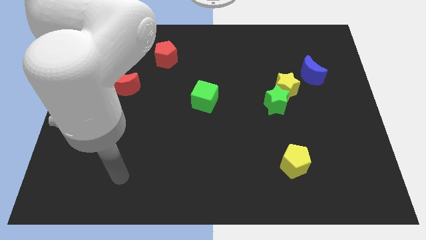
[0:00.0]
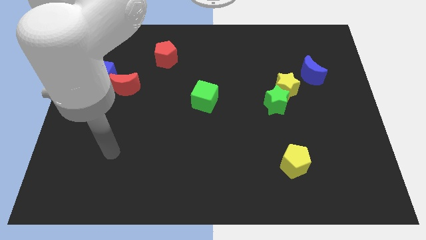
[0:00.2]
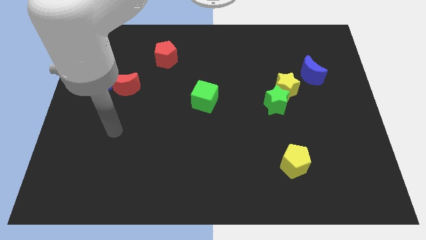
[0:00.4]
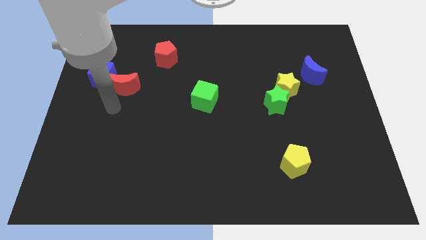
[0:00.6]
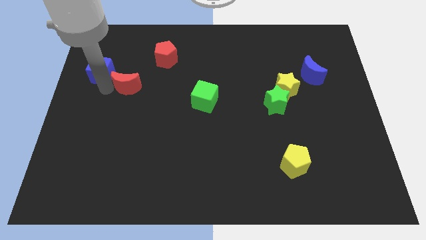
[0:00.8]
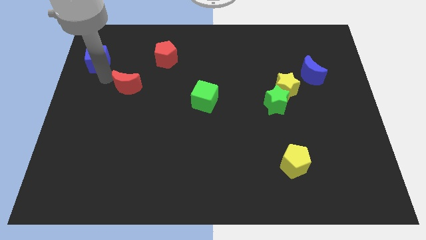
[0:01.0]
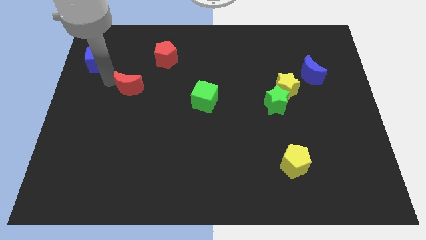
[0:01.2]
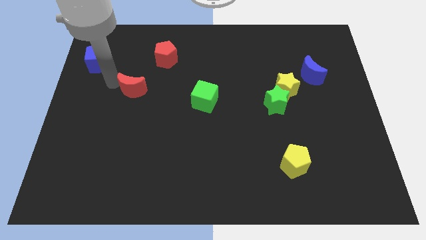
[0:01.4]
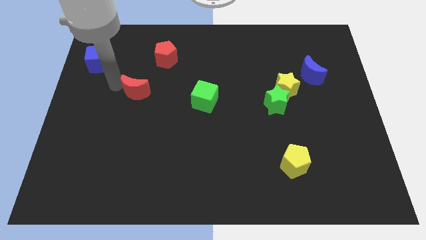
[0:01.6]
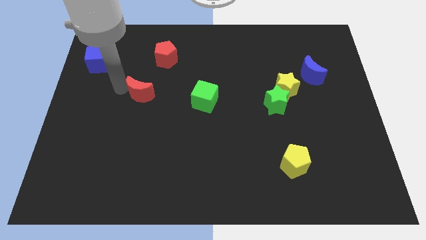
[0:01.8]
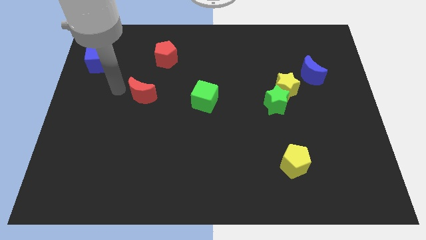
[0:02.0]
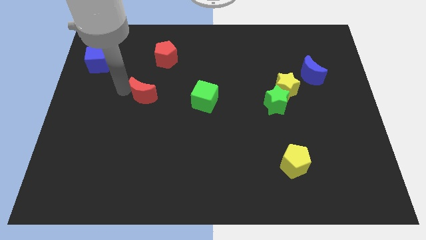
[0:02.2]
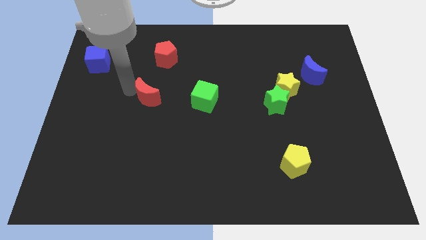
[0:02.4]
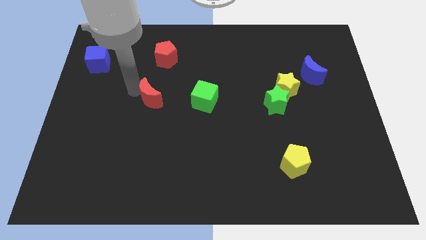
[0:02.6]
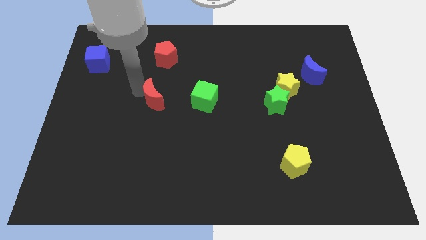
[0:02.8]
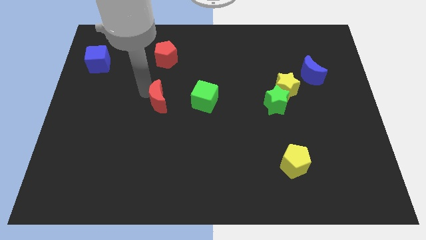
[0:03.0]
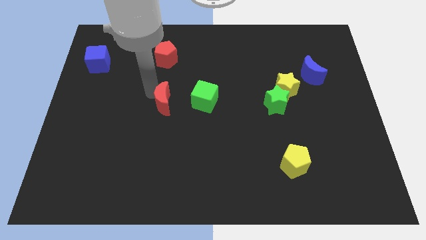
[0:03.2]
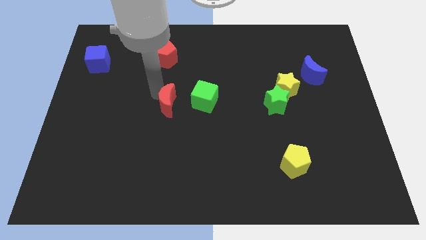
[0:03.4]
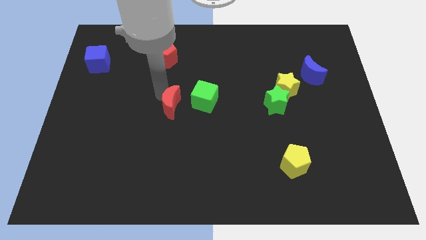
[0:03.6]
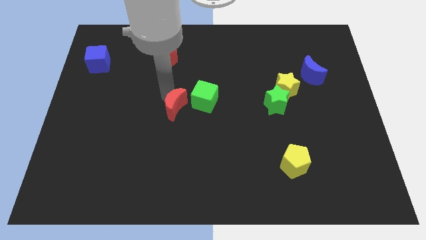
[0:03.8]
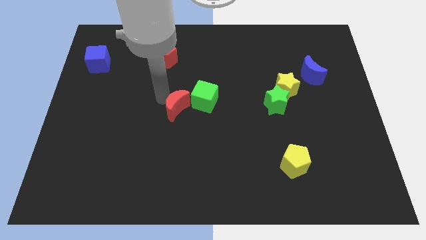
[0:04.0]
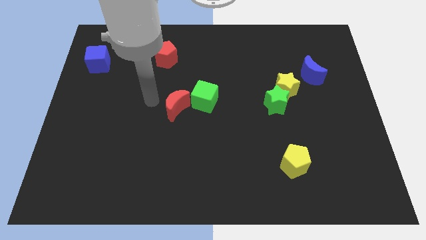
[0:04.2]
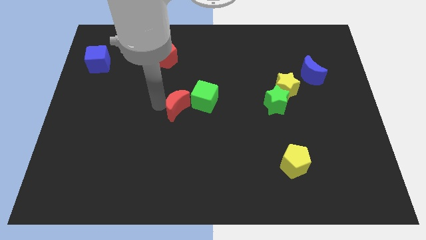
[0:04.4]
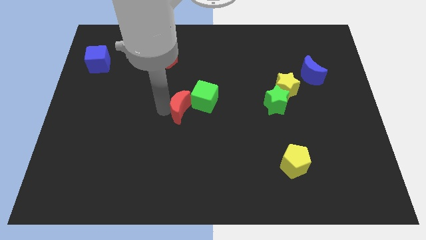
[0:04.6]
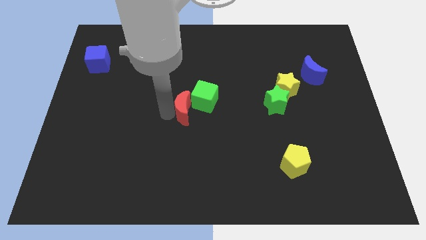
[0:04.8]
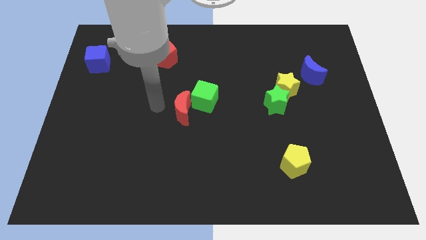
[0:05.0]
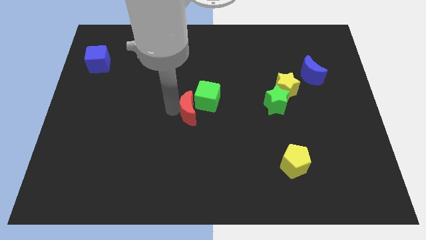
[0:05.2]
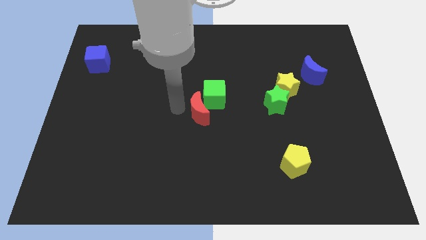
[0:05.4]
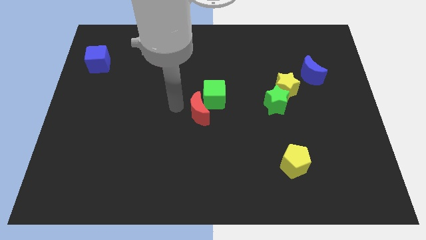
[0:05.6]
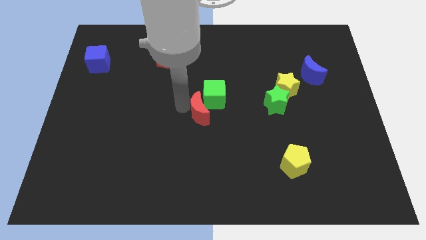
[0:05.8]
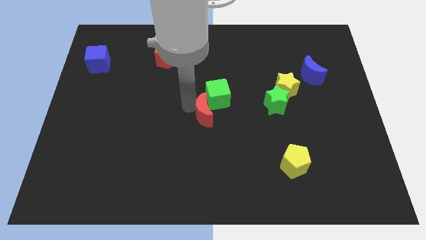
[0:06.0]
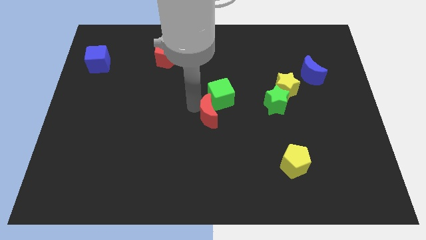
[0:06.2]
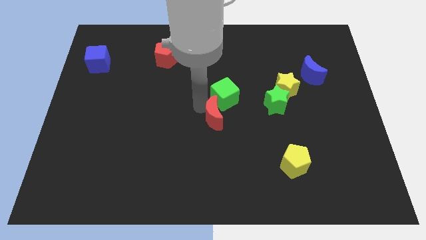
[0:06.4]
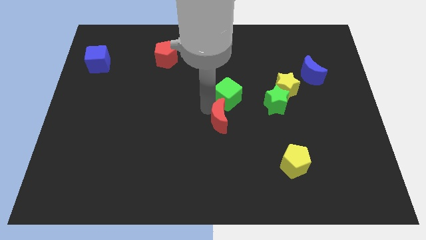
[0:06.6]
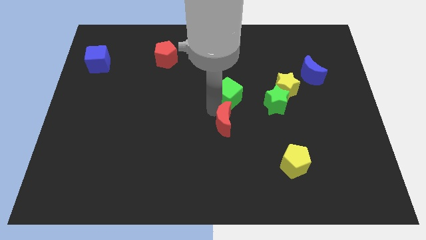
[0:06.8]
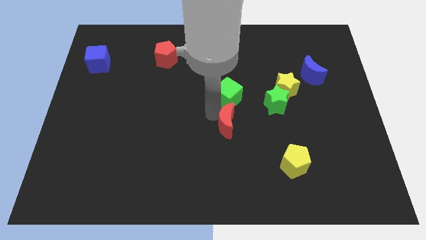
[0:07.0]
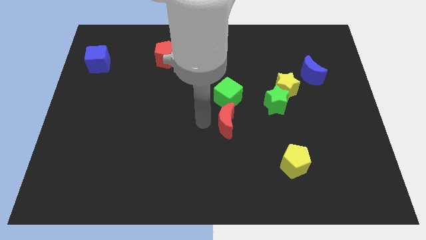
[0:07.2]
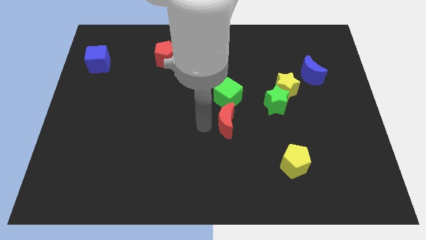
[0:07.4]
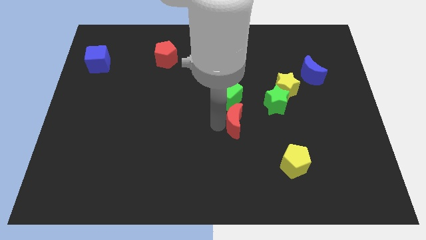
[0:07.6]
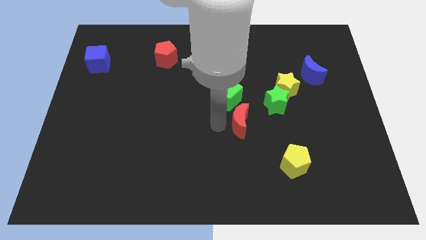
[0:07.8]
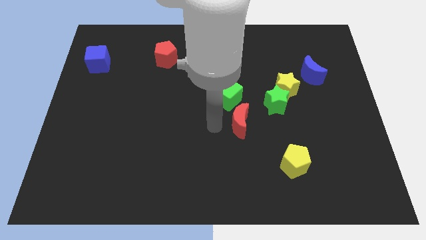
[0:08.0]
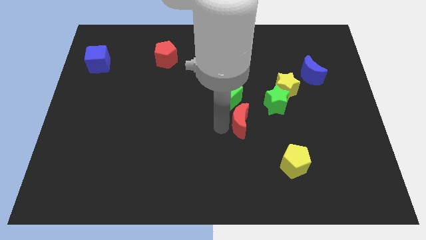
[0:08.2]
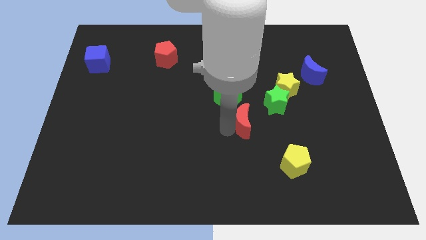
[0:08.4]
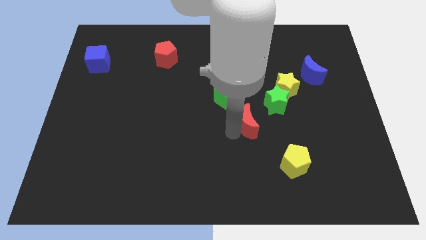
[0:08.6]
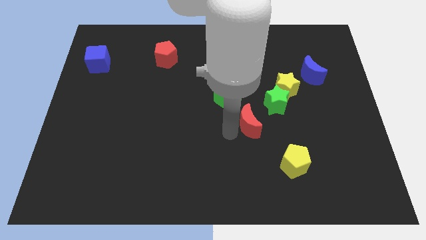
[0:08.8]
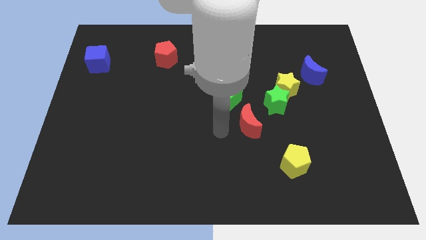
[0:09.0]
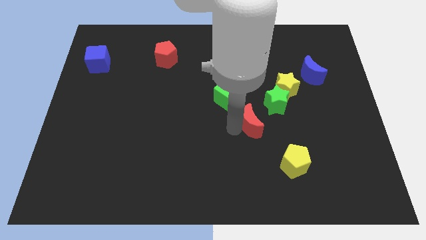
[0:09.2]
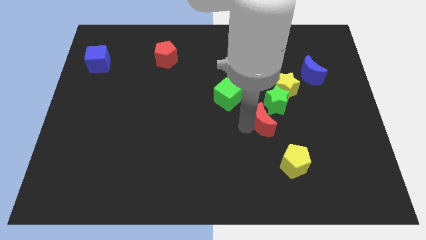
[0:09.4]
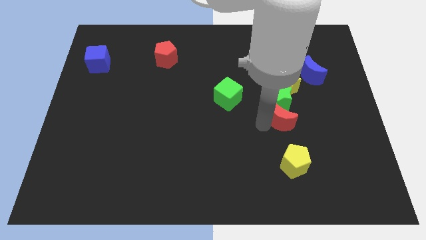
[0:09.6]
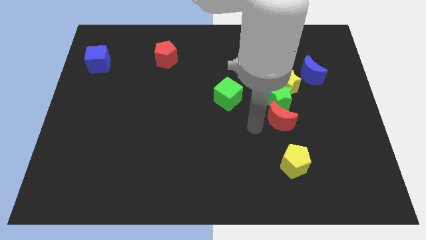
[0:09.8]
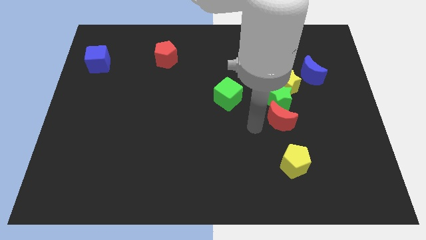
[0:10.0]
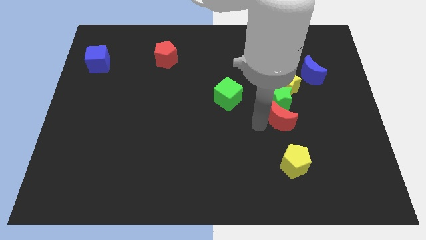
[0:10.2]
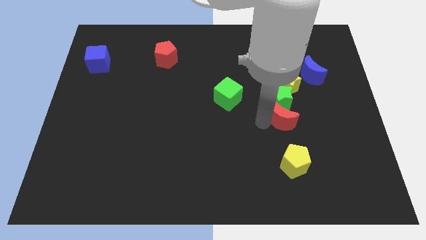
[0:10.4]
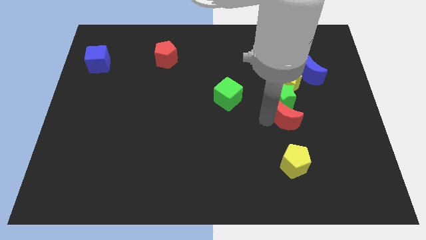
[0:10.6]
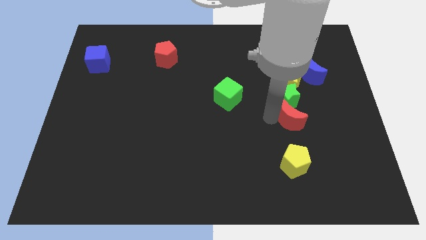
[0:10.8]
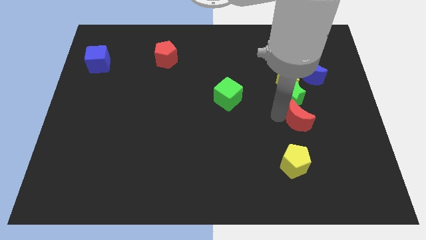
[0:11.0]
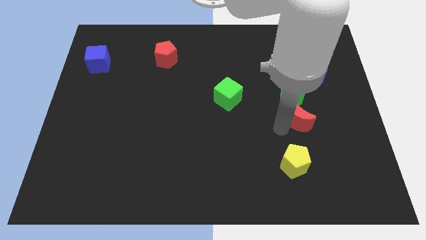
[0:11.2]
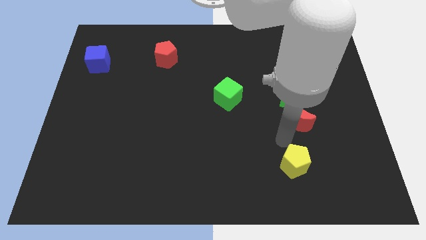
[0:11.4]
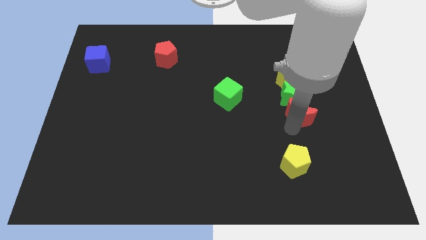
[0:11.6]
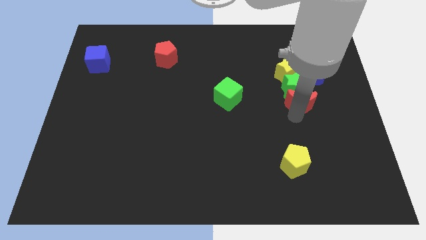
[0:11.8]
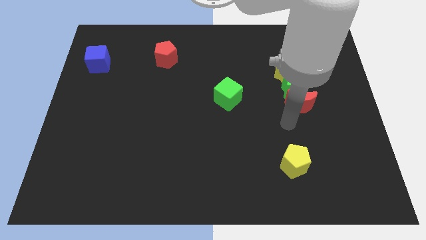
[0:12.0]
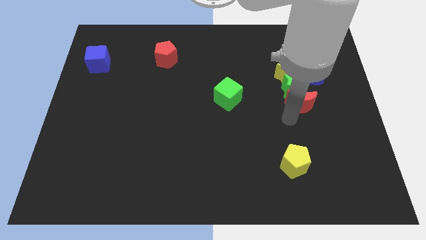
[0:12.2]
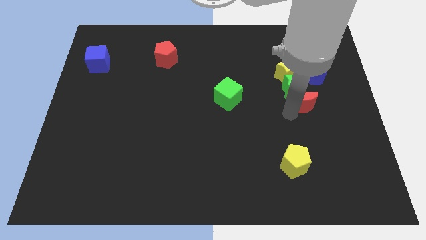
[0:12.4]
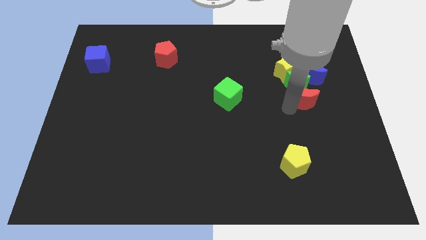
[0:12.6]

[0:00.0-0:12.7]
slide the red moon to the bottom right of the yellow star
